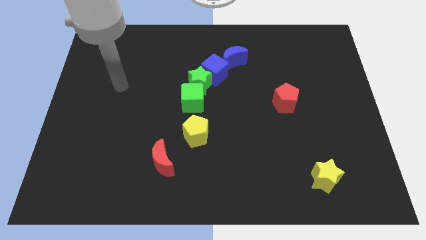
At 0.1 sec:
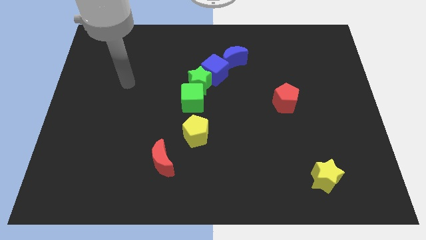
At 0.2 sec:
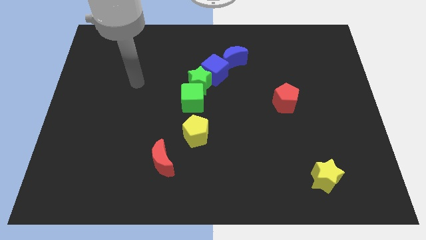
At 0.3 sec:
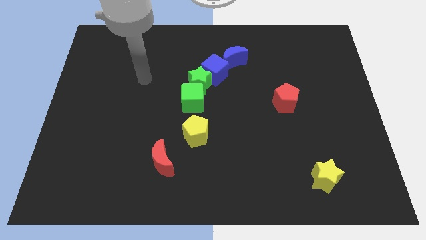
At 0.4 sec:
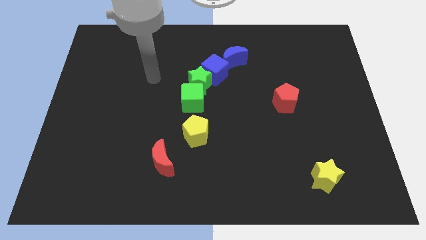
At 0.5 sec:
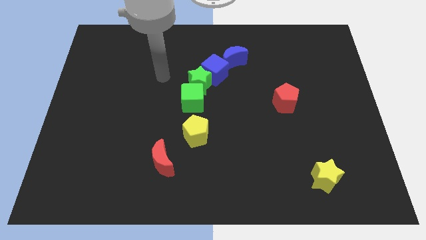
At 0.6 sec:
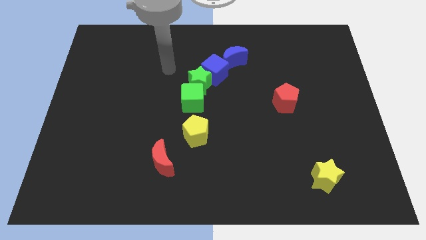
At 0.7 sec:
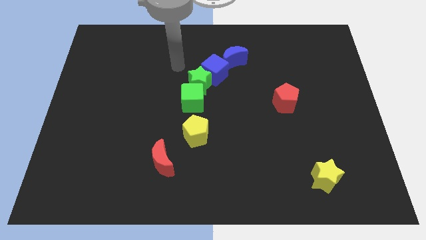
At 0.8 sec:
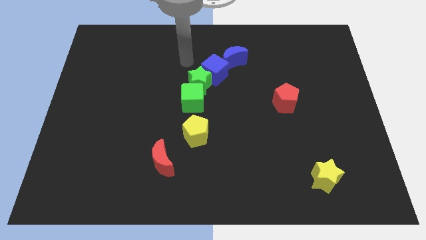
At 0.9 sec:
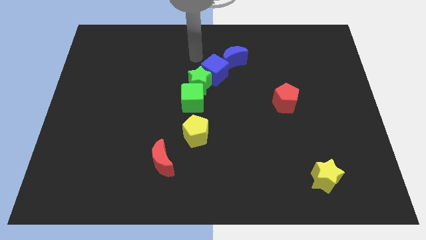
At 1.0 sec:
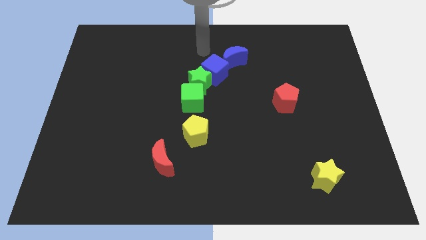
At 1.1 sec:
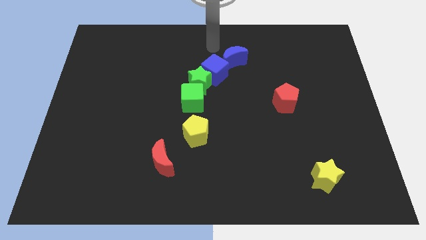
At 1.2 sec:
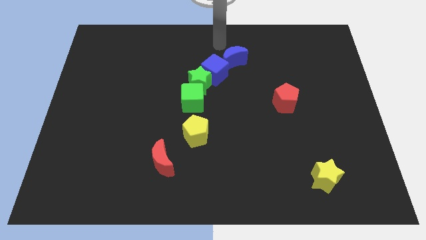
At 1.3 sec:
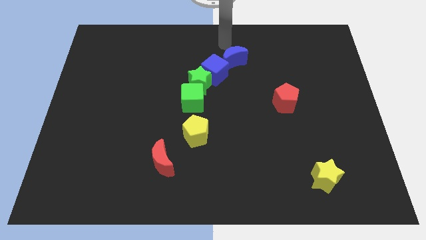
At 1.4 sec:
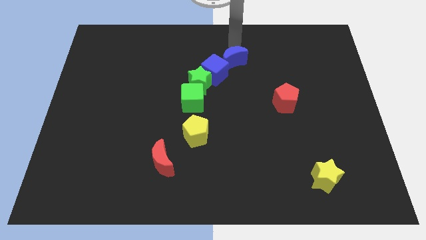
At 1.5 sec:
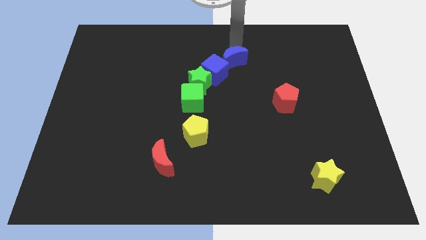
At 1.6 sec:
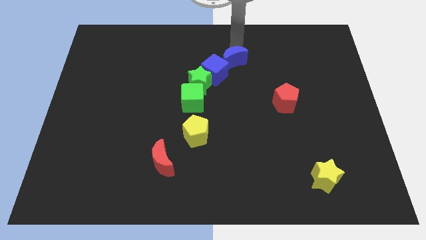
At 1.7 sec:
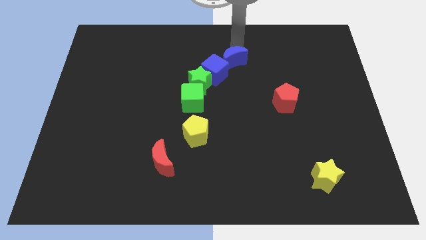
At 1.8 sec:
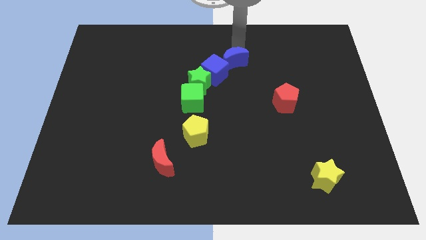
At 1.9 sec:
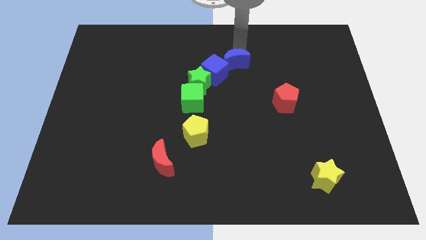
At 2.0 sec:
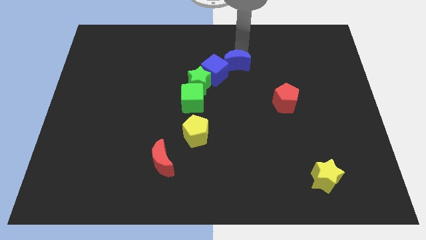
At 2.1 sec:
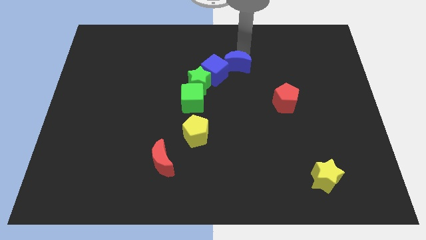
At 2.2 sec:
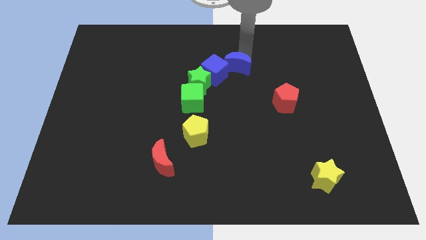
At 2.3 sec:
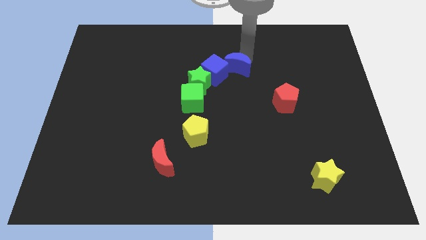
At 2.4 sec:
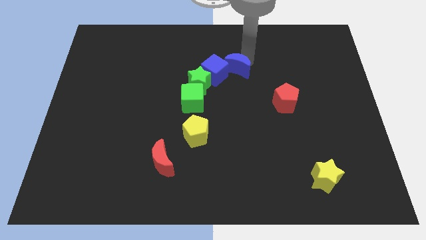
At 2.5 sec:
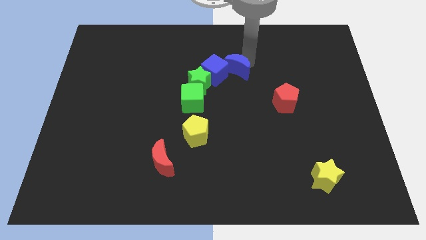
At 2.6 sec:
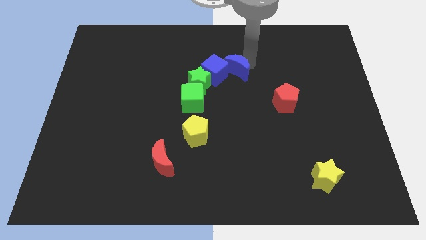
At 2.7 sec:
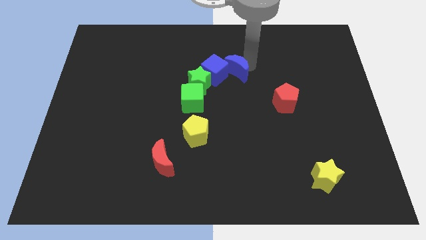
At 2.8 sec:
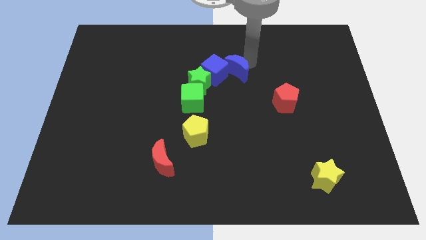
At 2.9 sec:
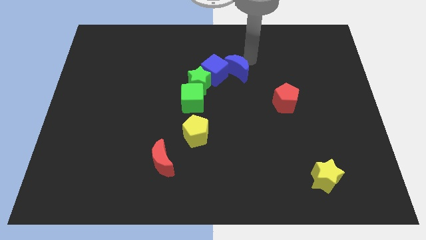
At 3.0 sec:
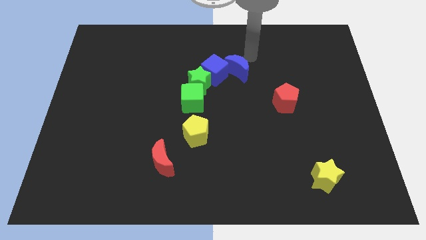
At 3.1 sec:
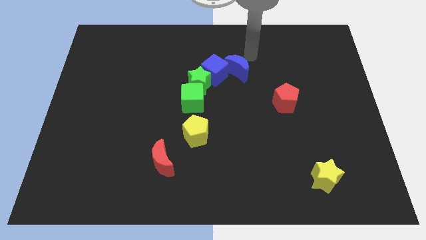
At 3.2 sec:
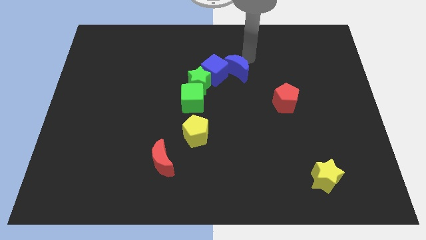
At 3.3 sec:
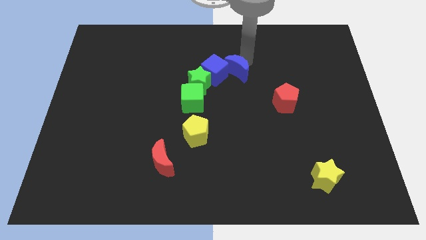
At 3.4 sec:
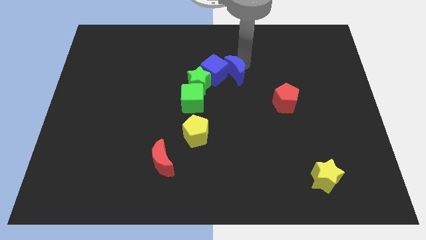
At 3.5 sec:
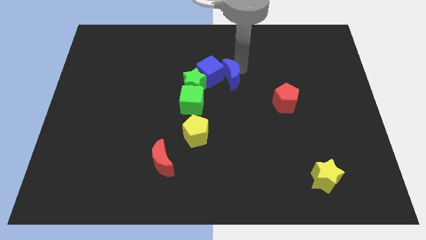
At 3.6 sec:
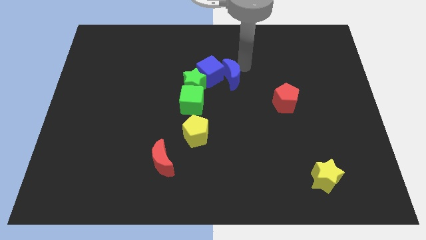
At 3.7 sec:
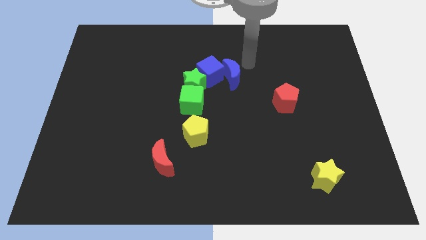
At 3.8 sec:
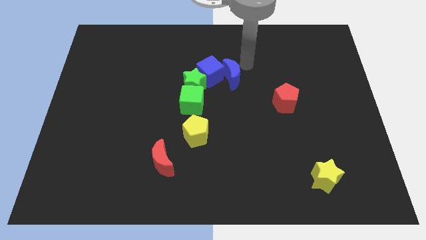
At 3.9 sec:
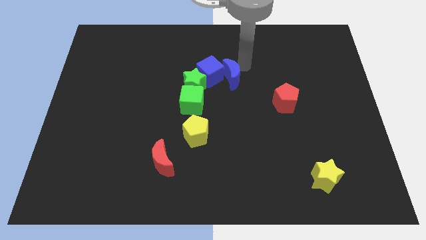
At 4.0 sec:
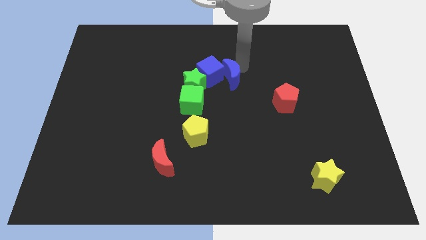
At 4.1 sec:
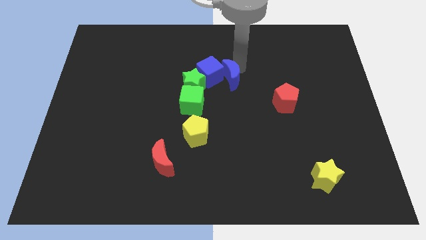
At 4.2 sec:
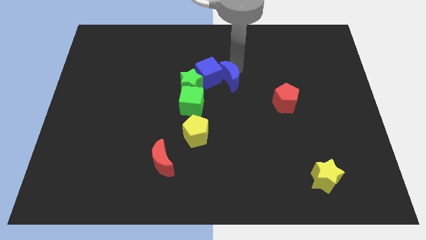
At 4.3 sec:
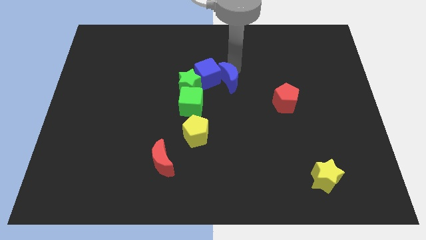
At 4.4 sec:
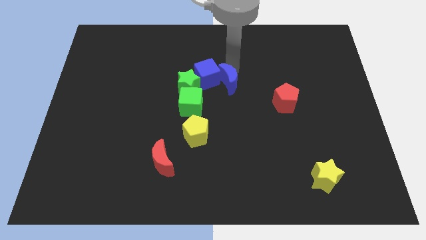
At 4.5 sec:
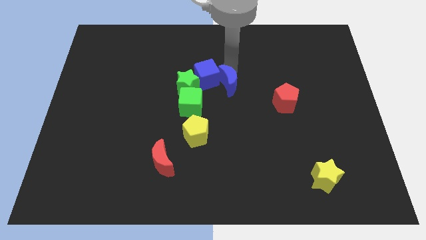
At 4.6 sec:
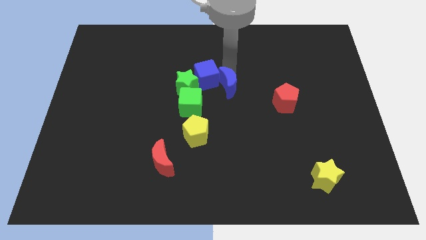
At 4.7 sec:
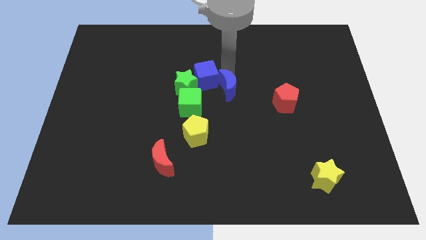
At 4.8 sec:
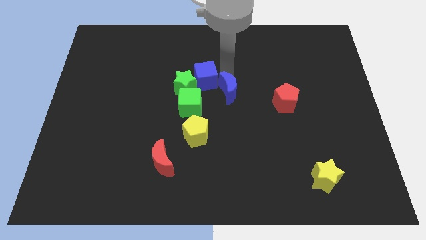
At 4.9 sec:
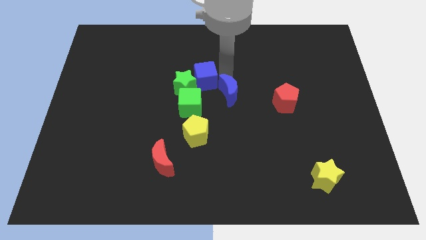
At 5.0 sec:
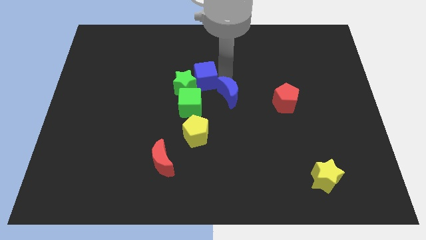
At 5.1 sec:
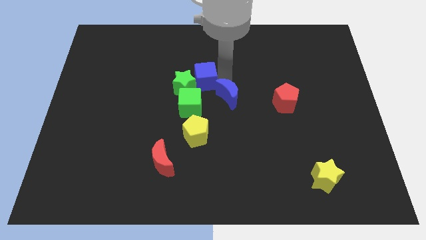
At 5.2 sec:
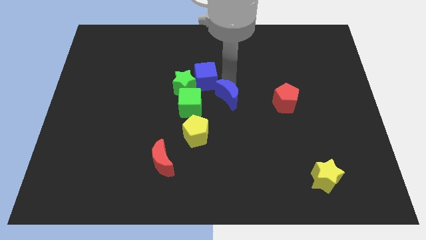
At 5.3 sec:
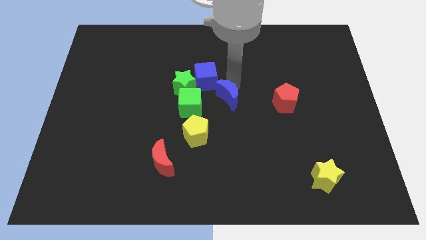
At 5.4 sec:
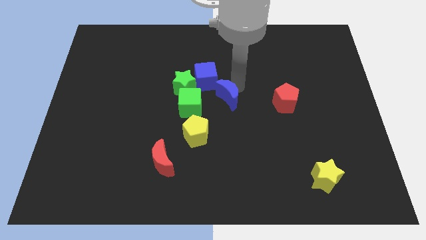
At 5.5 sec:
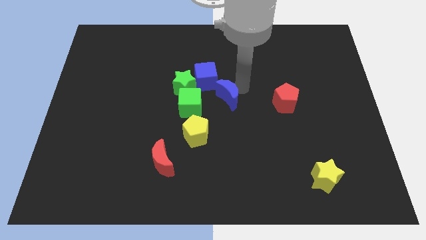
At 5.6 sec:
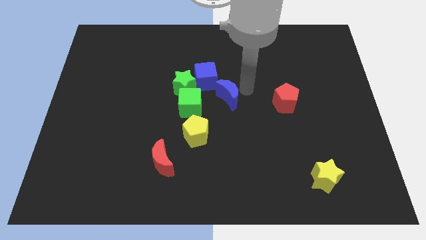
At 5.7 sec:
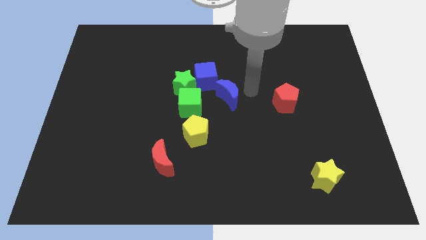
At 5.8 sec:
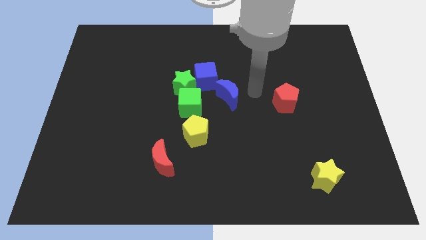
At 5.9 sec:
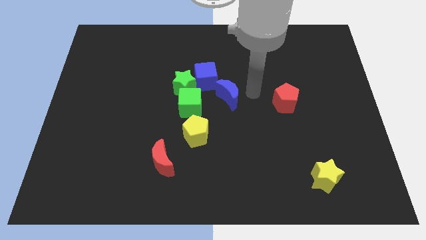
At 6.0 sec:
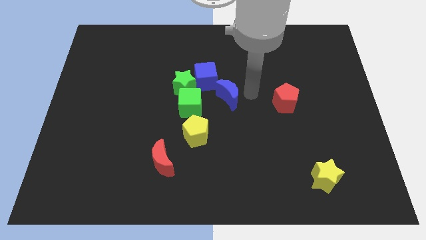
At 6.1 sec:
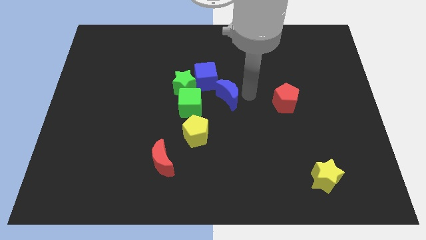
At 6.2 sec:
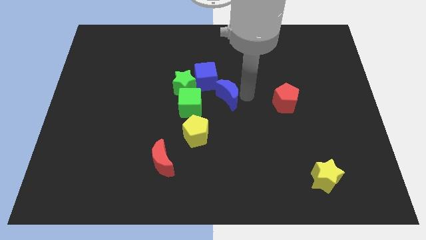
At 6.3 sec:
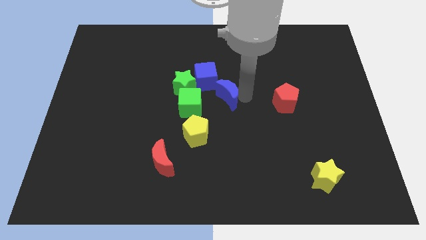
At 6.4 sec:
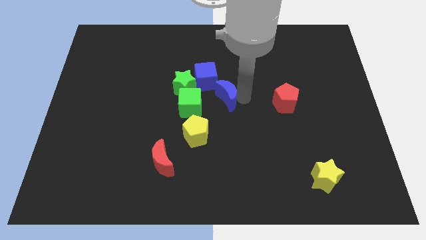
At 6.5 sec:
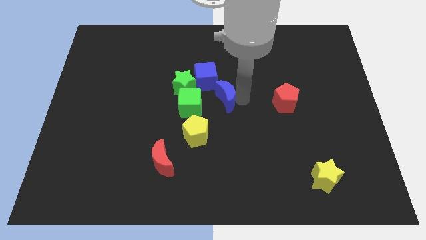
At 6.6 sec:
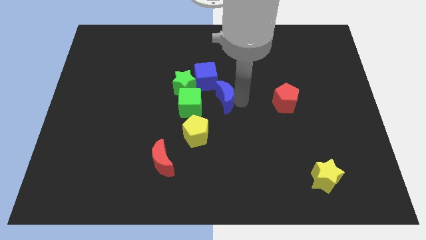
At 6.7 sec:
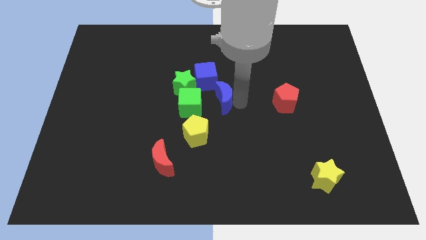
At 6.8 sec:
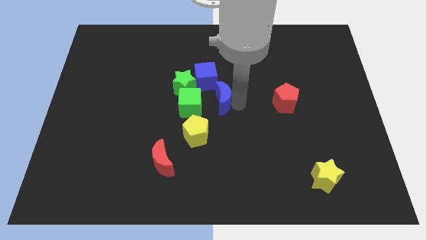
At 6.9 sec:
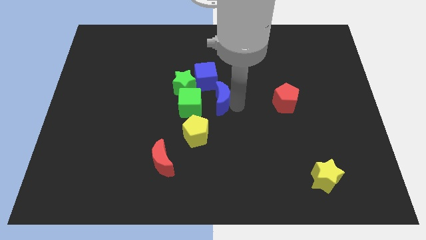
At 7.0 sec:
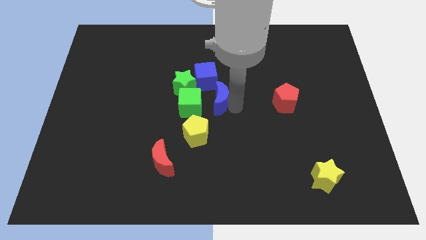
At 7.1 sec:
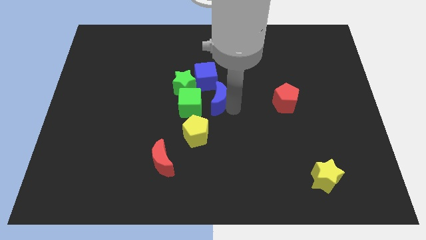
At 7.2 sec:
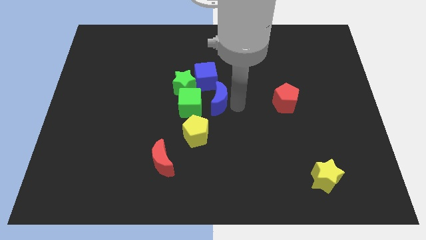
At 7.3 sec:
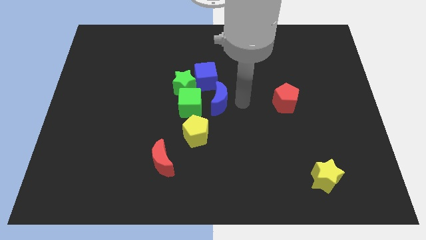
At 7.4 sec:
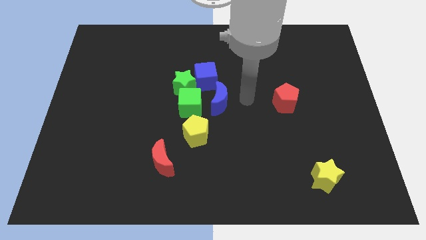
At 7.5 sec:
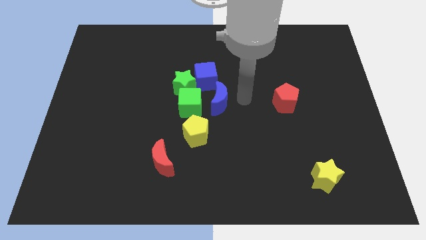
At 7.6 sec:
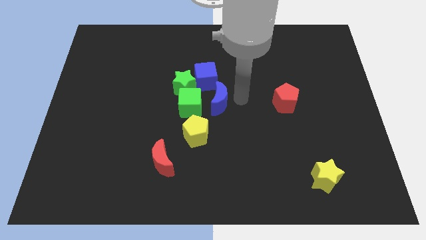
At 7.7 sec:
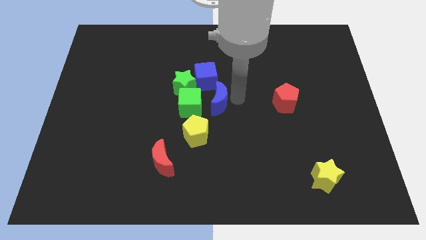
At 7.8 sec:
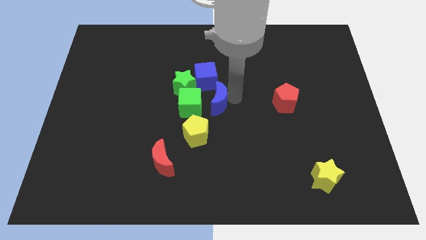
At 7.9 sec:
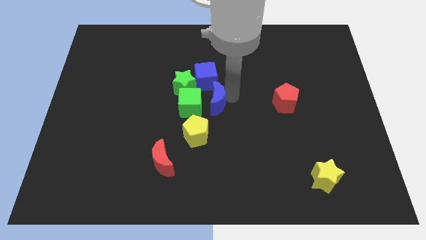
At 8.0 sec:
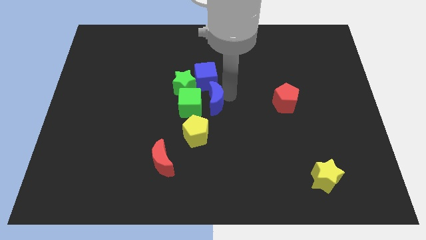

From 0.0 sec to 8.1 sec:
push the blue moon to the green cube
